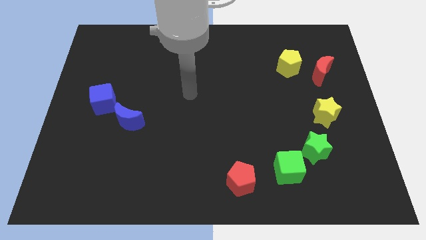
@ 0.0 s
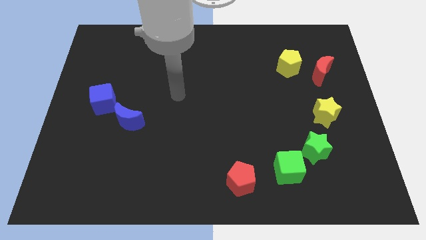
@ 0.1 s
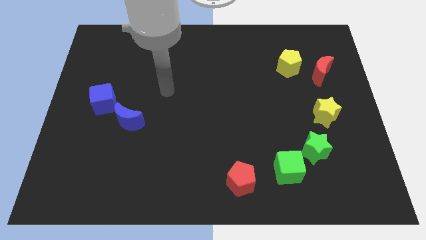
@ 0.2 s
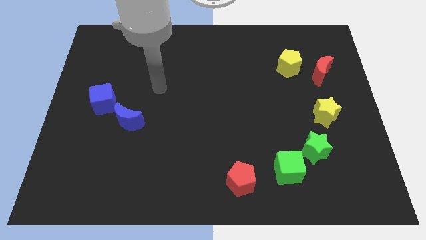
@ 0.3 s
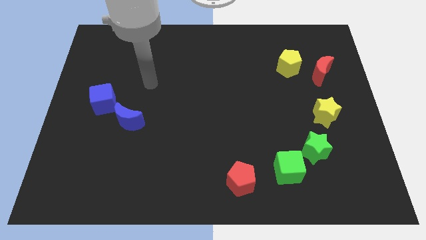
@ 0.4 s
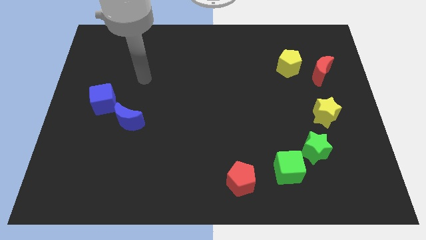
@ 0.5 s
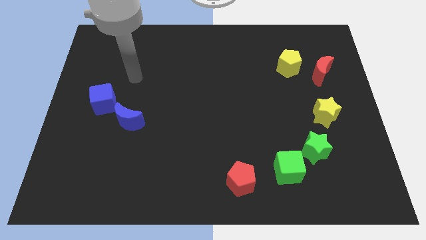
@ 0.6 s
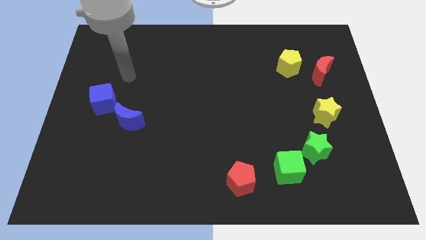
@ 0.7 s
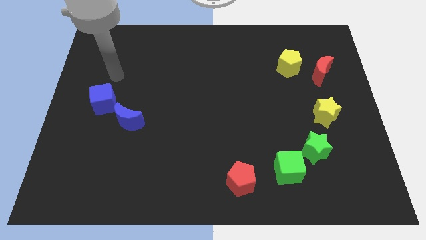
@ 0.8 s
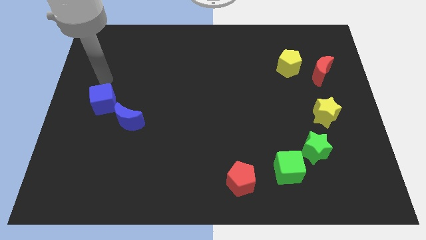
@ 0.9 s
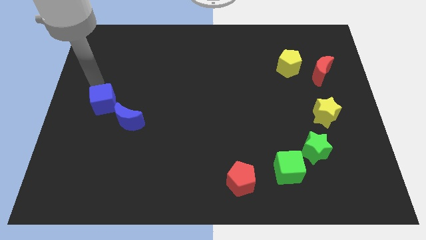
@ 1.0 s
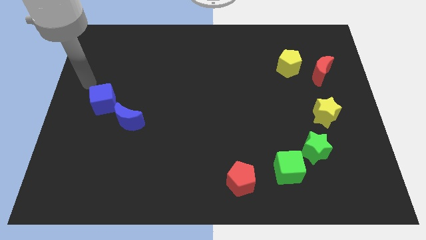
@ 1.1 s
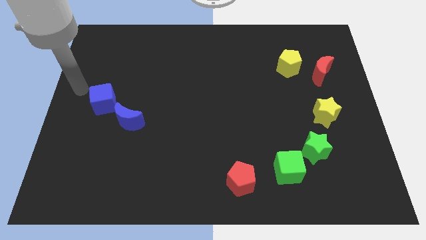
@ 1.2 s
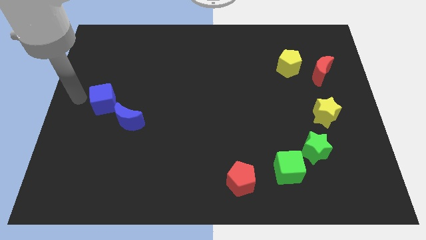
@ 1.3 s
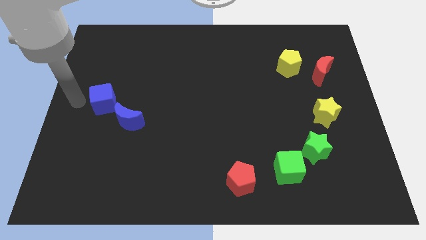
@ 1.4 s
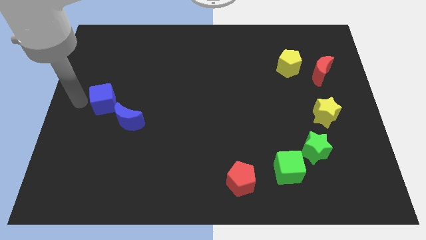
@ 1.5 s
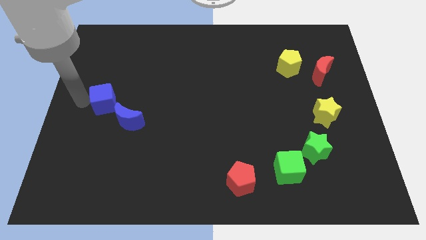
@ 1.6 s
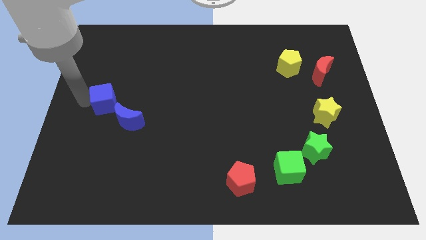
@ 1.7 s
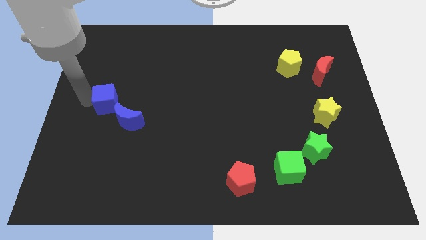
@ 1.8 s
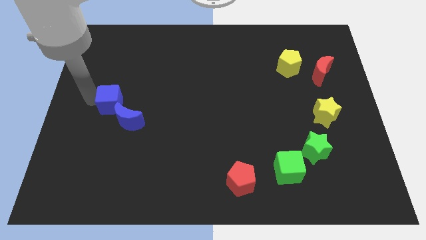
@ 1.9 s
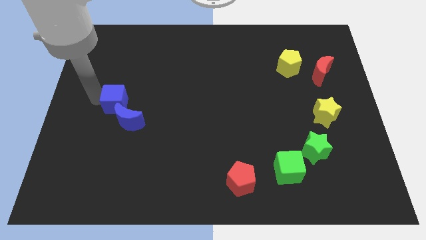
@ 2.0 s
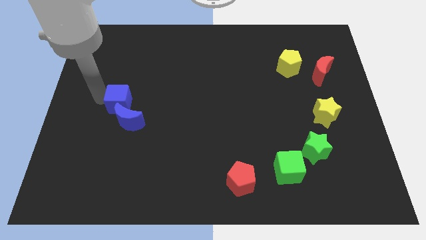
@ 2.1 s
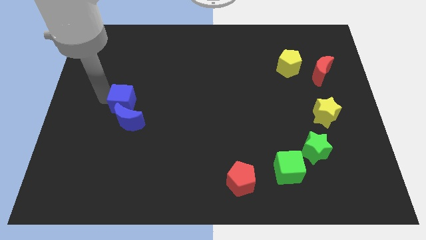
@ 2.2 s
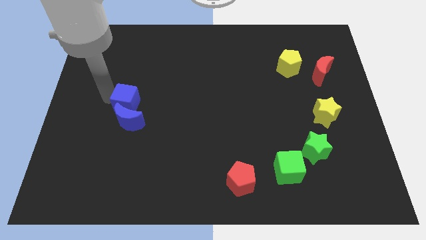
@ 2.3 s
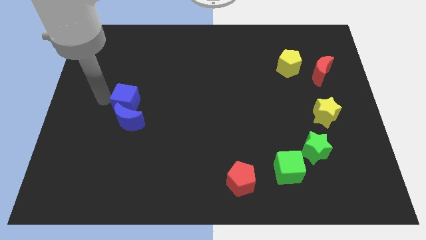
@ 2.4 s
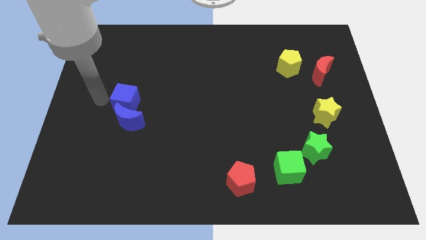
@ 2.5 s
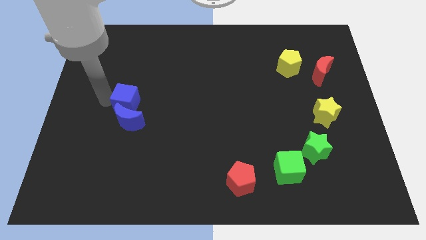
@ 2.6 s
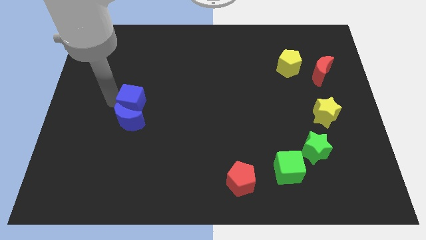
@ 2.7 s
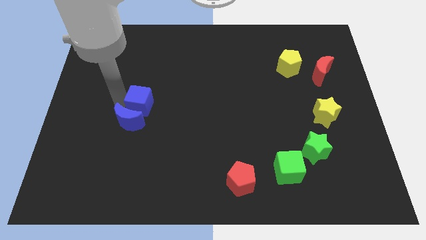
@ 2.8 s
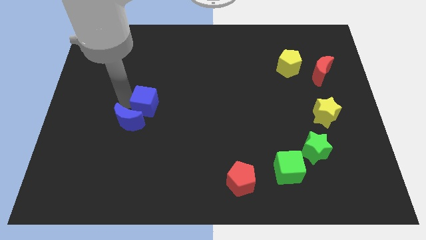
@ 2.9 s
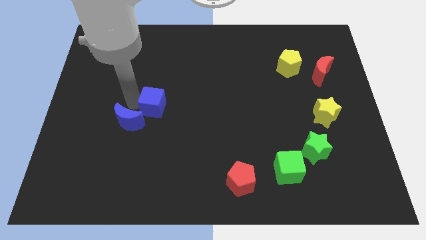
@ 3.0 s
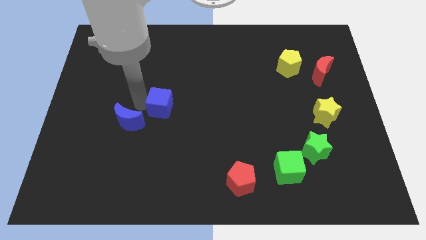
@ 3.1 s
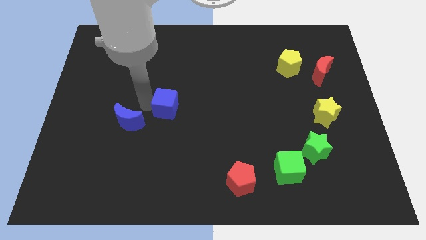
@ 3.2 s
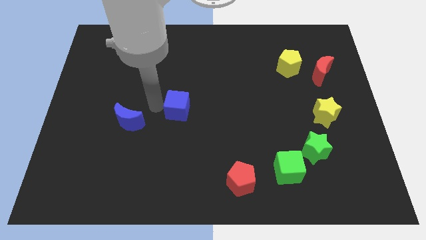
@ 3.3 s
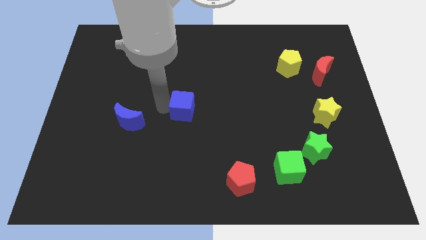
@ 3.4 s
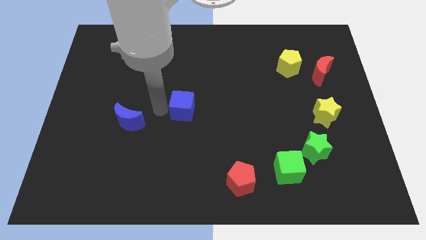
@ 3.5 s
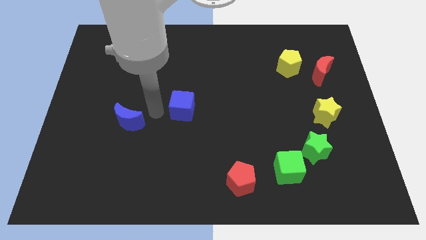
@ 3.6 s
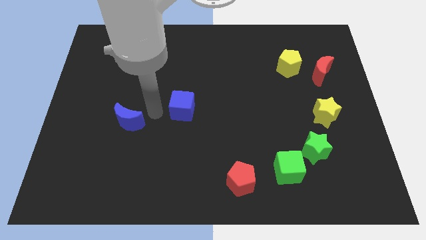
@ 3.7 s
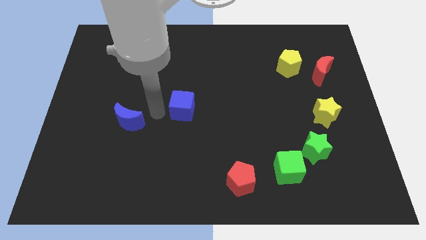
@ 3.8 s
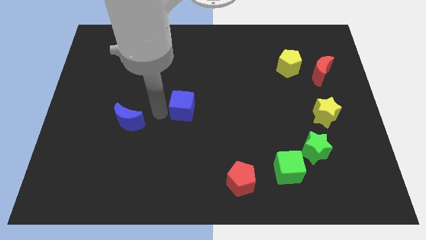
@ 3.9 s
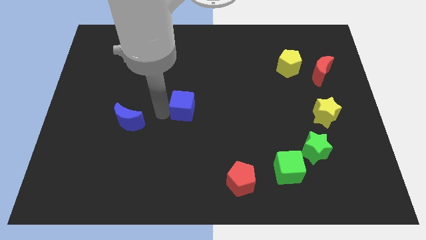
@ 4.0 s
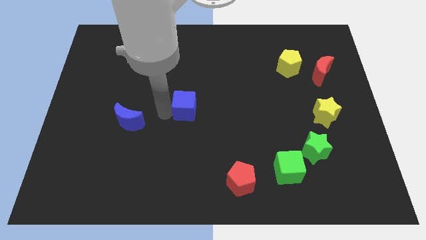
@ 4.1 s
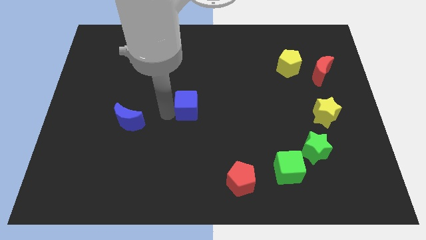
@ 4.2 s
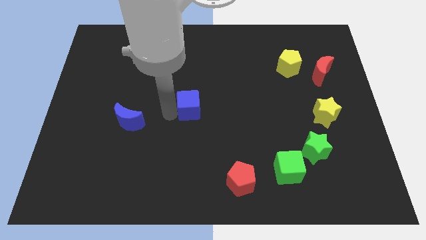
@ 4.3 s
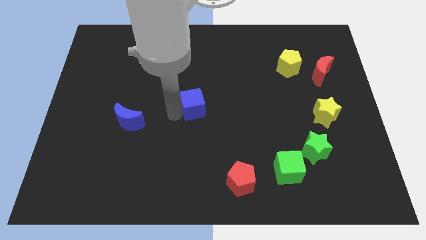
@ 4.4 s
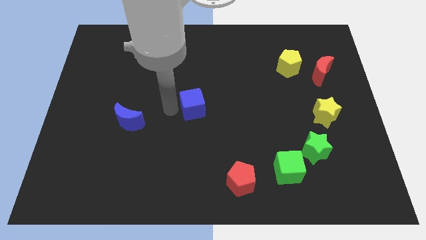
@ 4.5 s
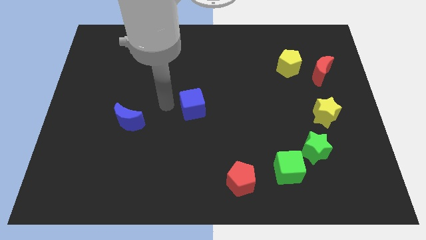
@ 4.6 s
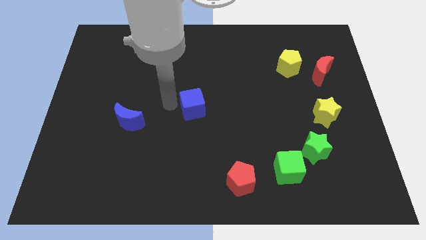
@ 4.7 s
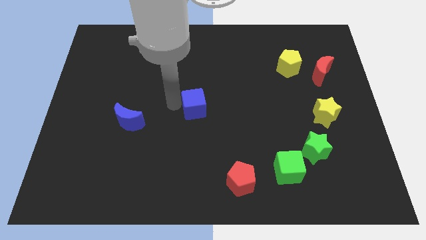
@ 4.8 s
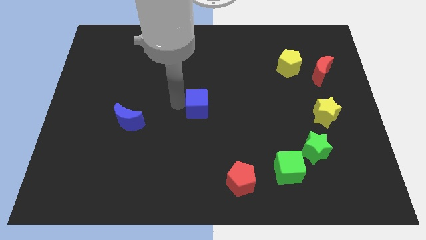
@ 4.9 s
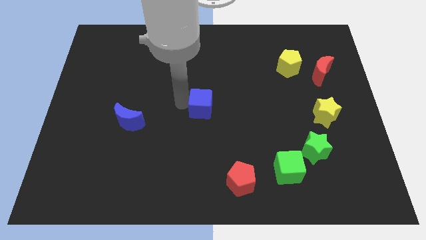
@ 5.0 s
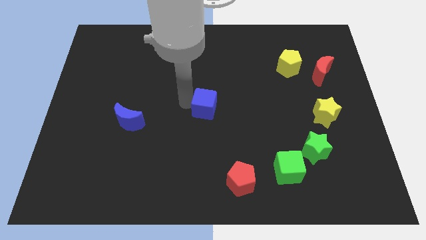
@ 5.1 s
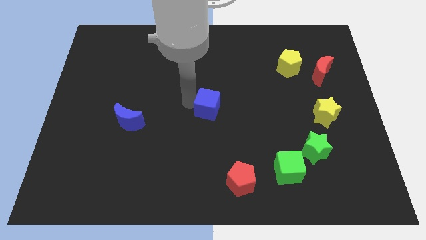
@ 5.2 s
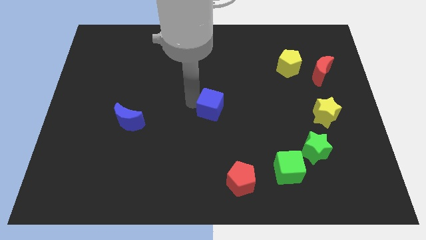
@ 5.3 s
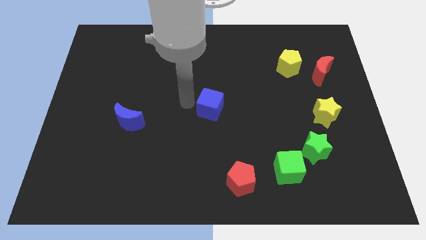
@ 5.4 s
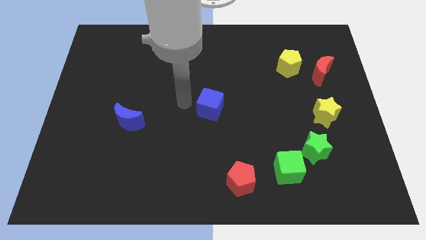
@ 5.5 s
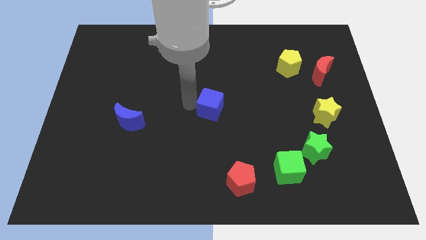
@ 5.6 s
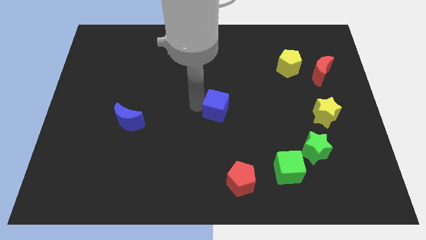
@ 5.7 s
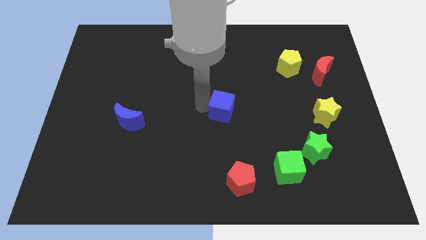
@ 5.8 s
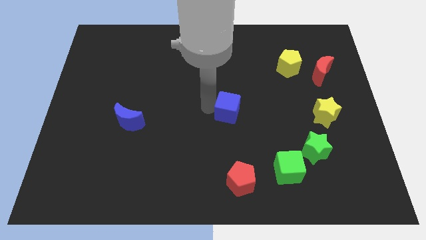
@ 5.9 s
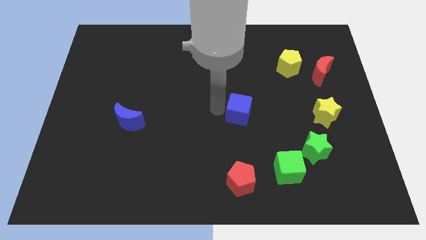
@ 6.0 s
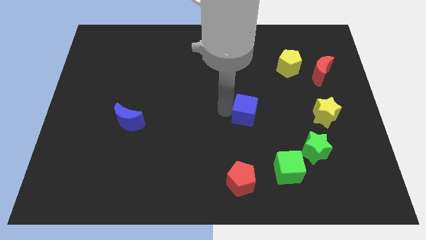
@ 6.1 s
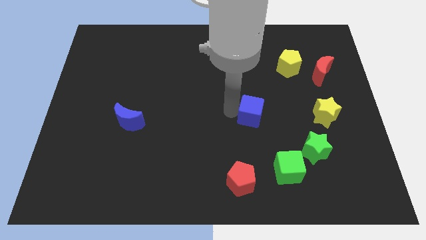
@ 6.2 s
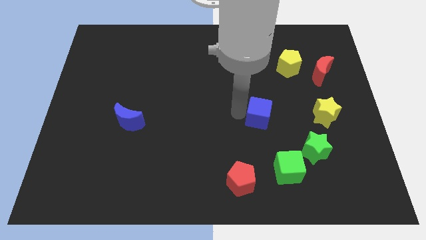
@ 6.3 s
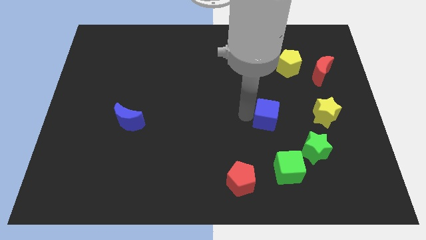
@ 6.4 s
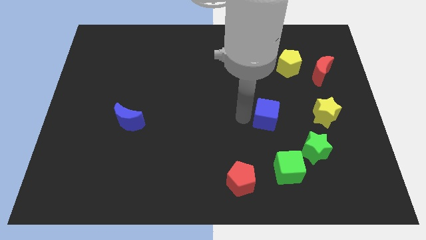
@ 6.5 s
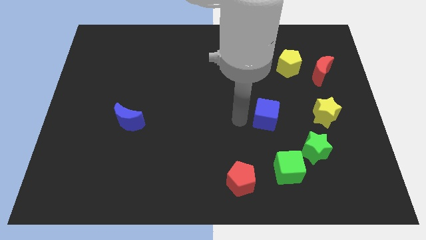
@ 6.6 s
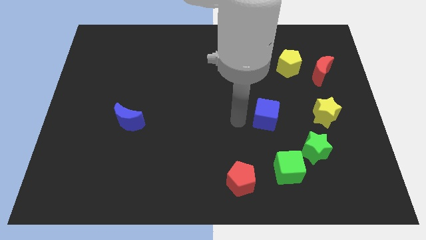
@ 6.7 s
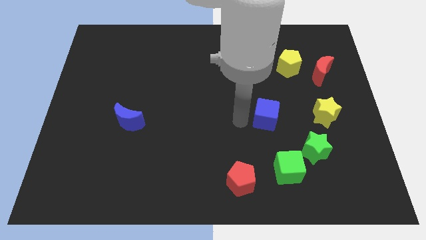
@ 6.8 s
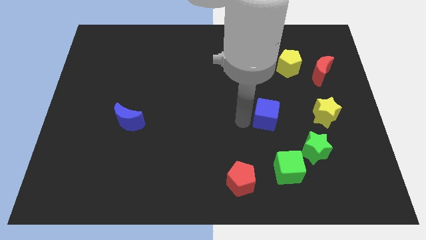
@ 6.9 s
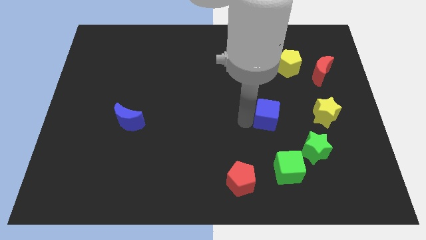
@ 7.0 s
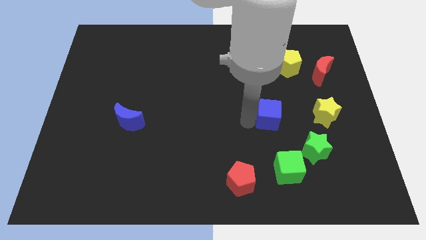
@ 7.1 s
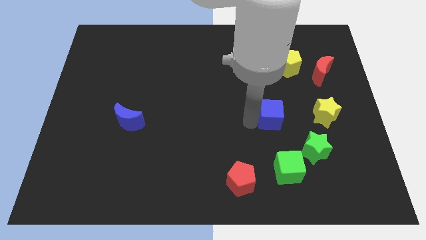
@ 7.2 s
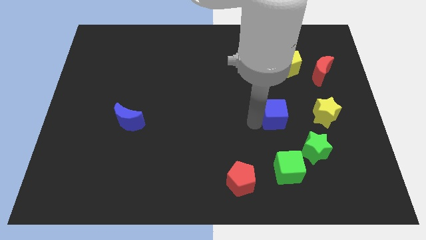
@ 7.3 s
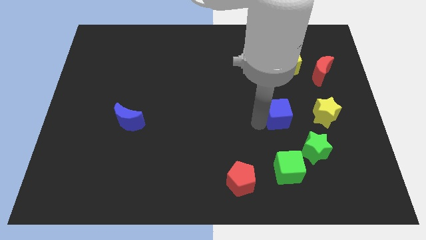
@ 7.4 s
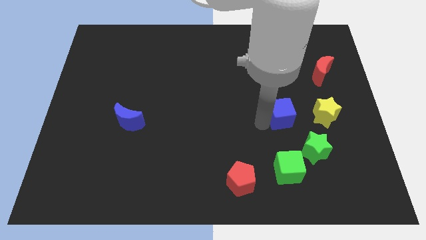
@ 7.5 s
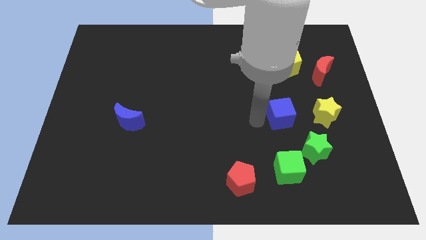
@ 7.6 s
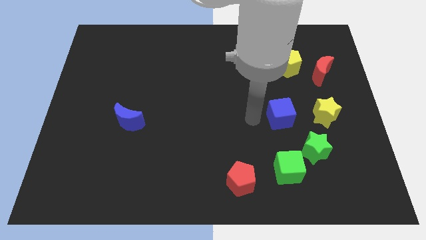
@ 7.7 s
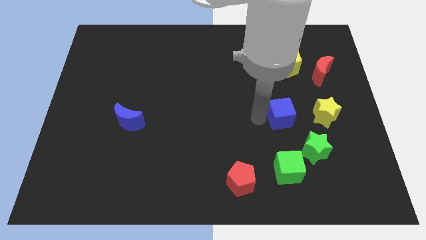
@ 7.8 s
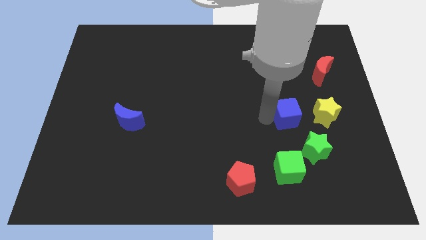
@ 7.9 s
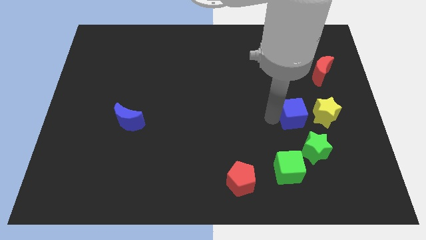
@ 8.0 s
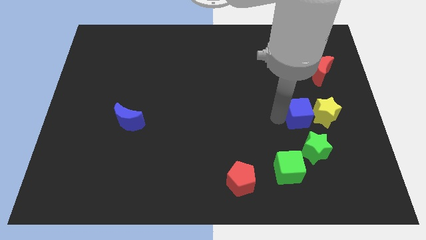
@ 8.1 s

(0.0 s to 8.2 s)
slide the blue cube next to the yellow star

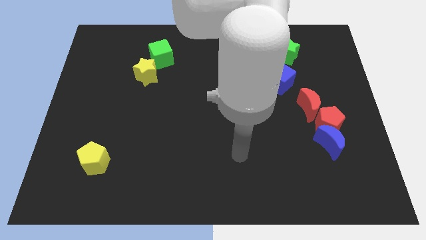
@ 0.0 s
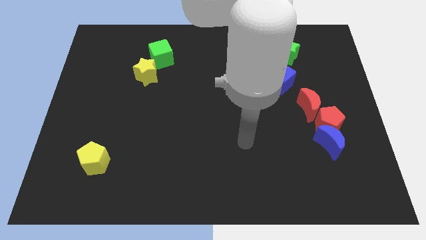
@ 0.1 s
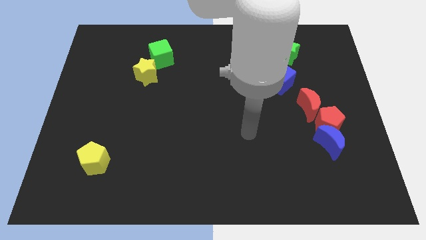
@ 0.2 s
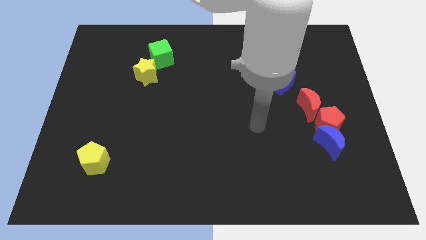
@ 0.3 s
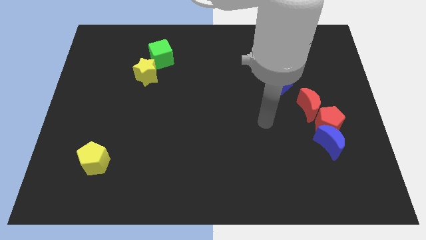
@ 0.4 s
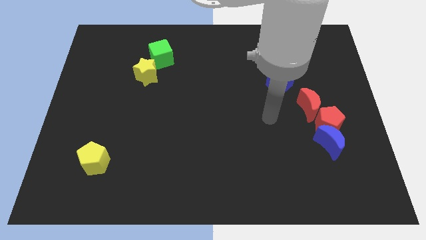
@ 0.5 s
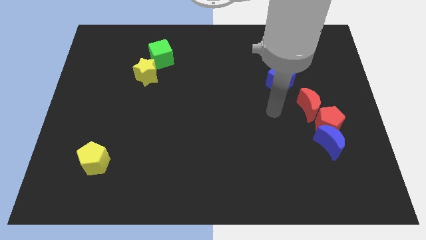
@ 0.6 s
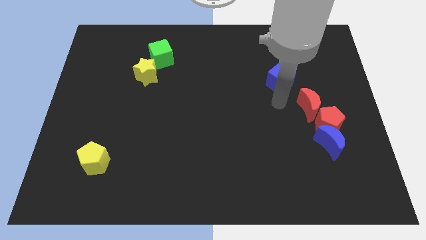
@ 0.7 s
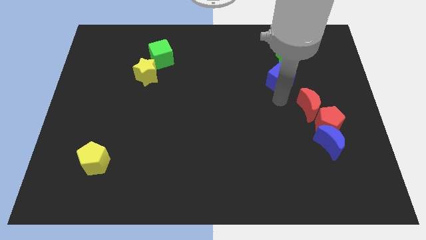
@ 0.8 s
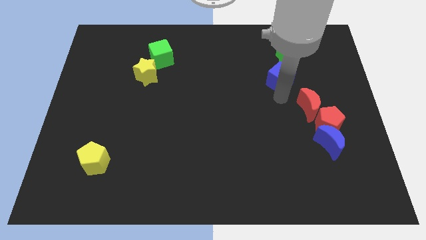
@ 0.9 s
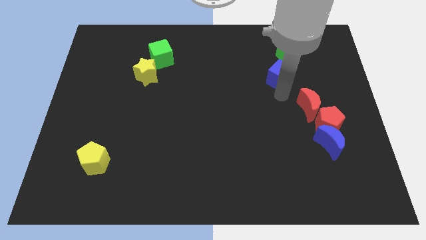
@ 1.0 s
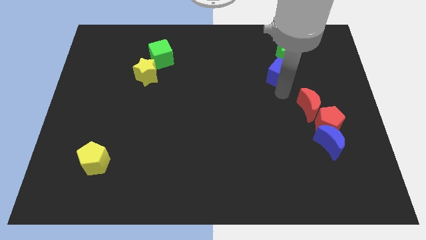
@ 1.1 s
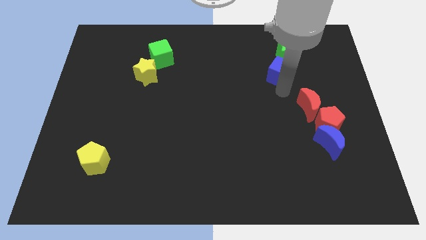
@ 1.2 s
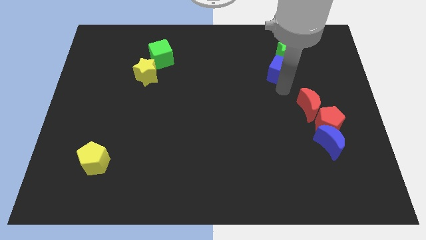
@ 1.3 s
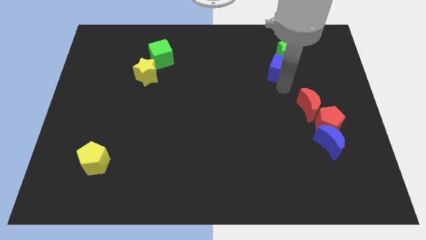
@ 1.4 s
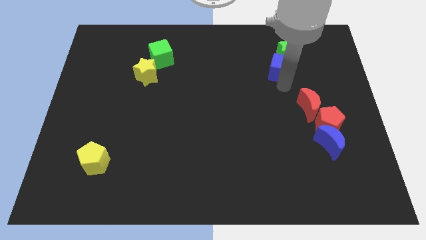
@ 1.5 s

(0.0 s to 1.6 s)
move the blue cube to the green star
